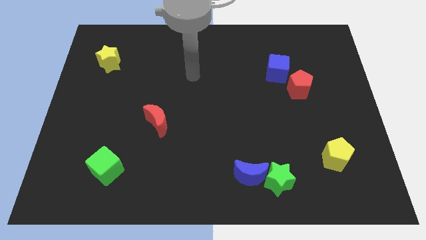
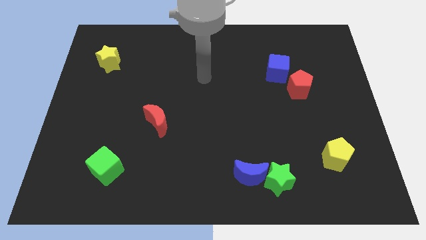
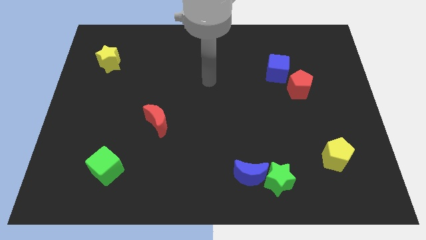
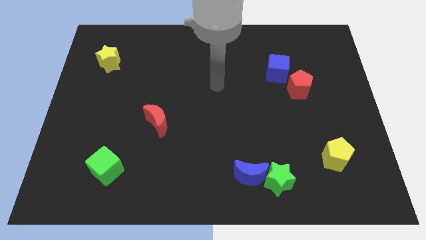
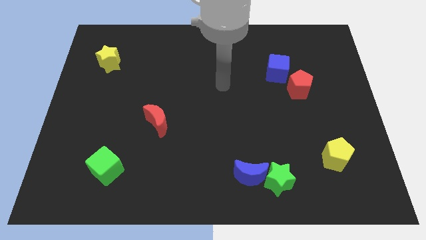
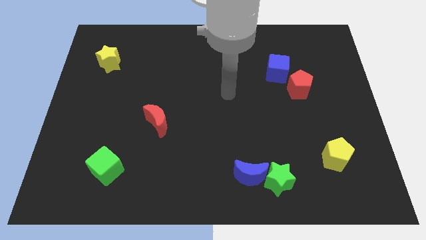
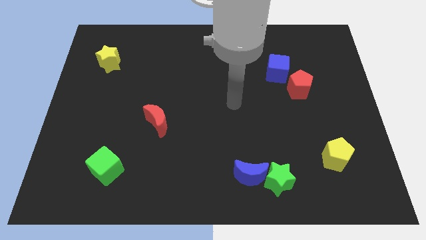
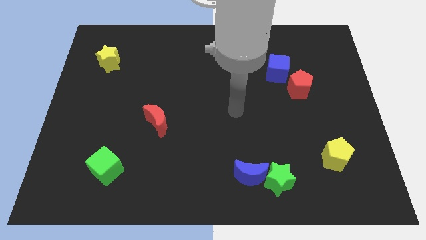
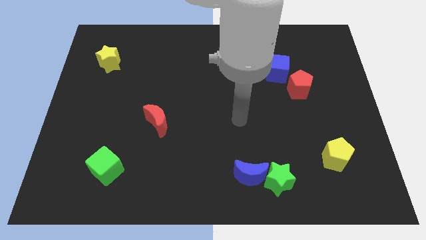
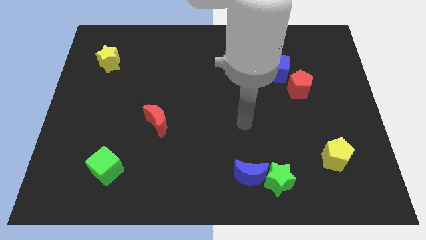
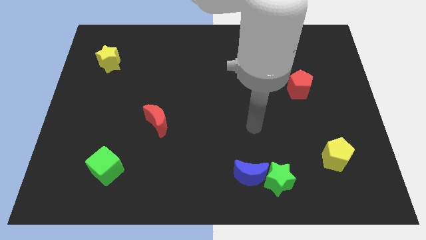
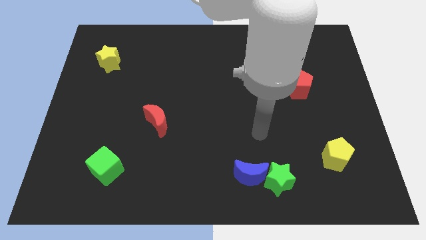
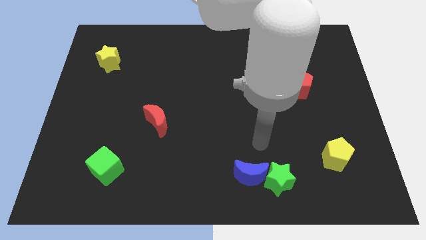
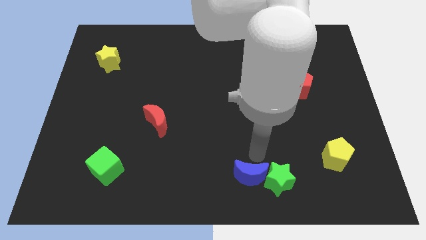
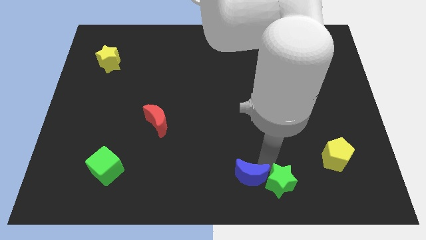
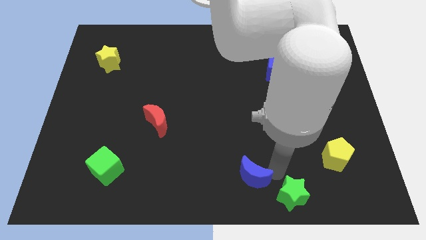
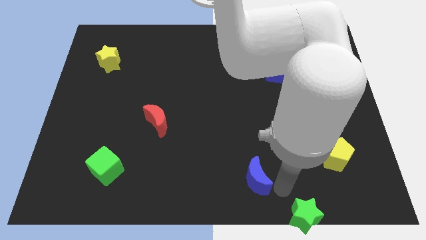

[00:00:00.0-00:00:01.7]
pull the blue moon apart from the green star

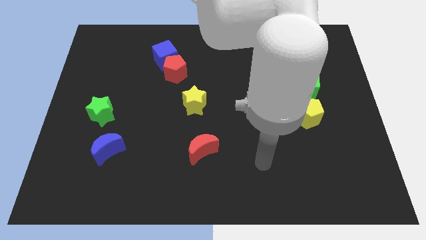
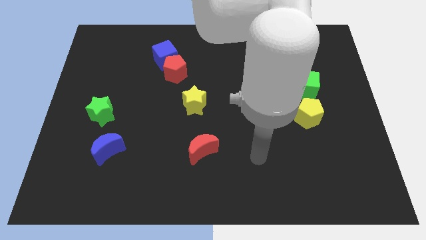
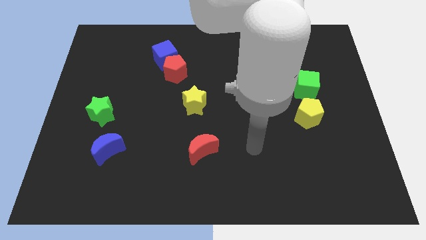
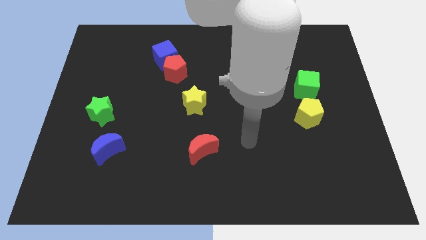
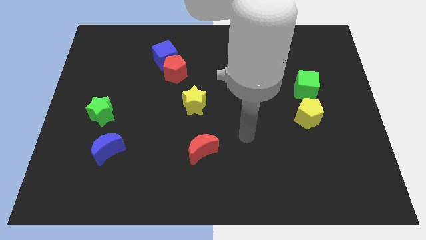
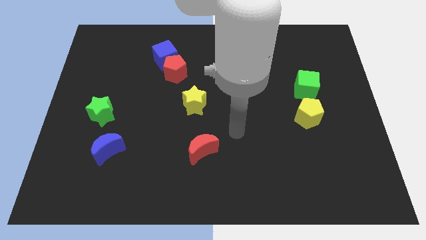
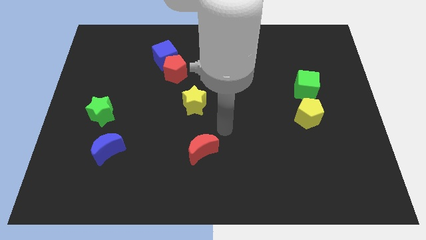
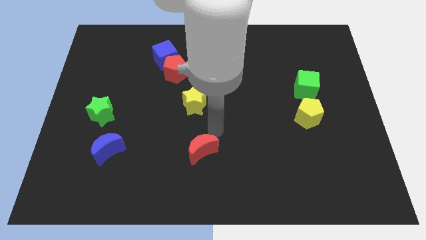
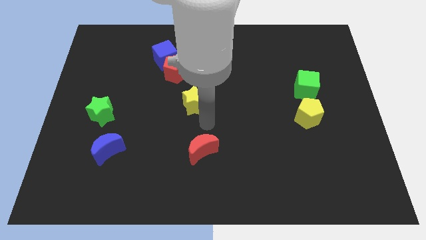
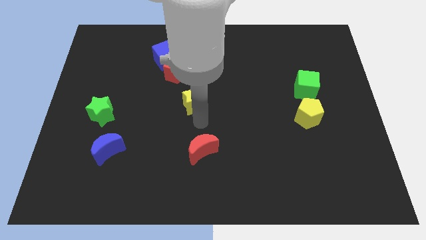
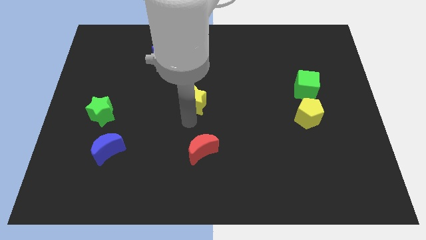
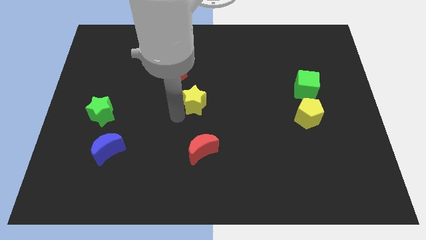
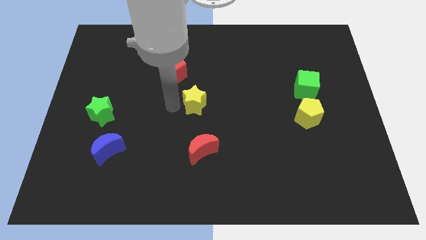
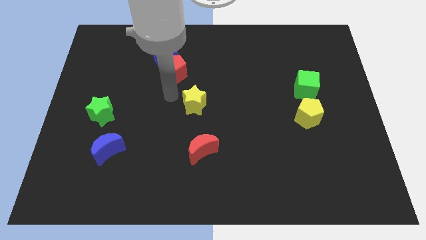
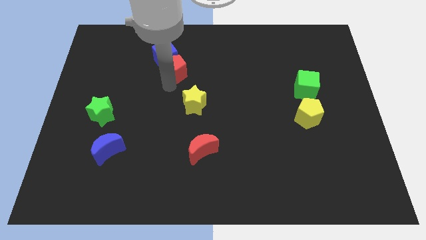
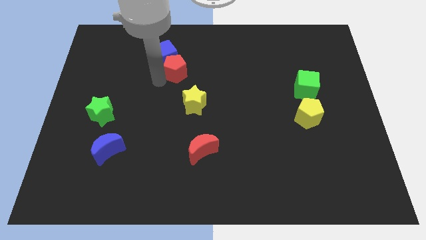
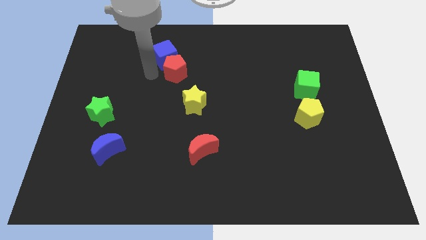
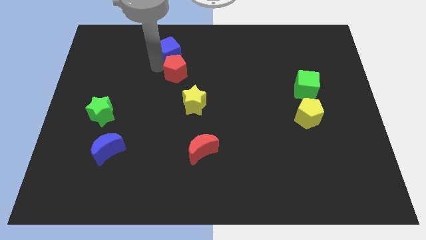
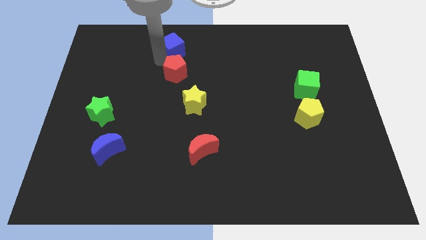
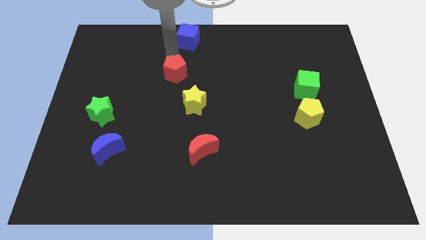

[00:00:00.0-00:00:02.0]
separate the red pentagon from the blue cube

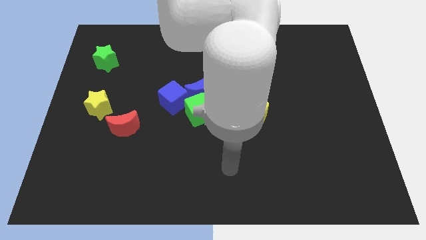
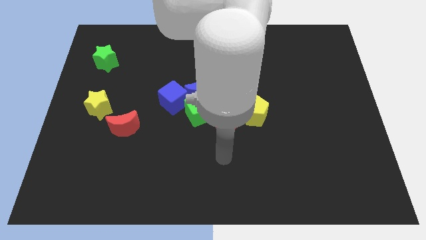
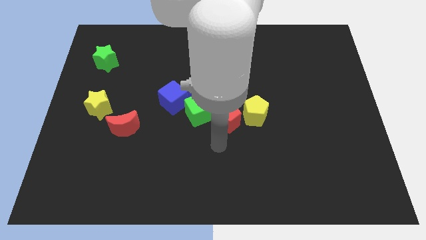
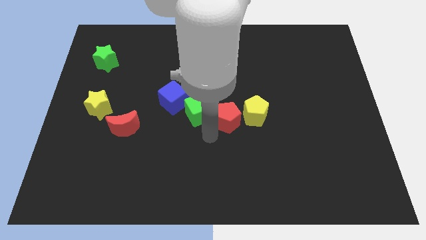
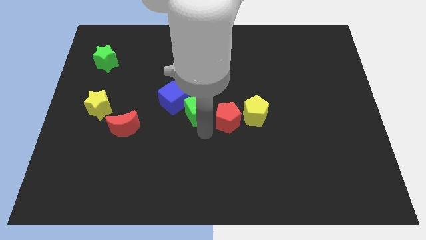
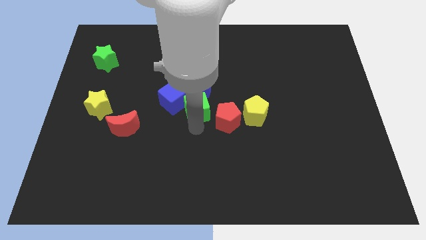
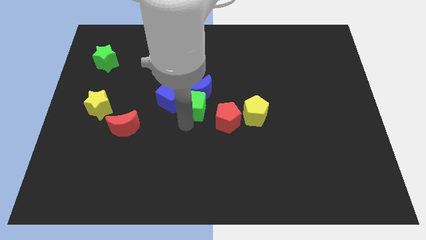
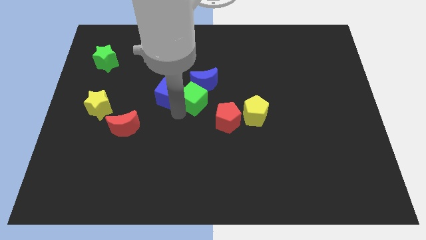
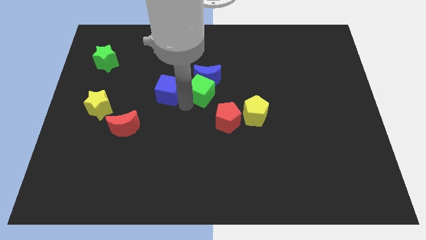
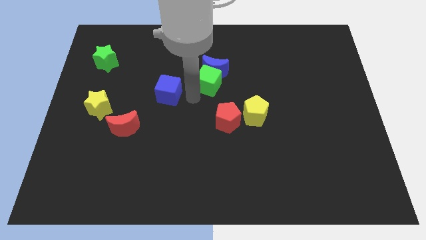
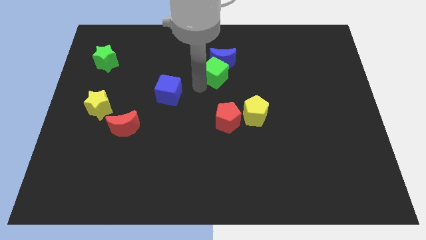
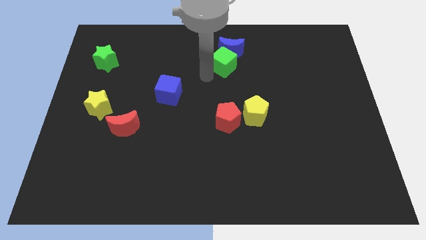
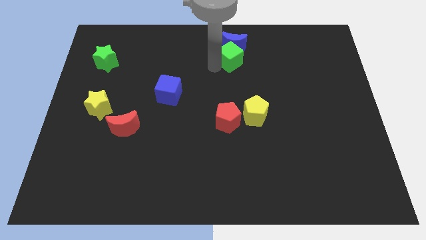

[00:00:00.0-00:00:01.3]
move the green cube away from the blue moon, red pentagon, and blue cube

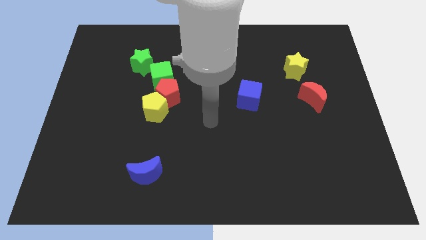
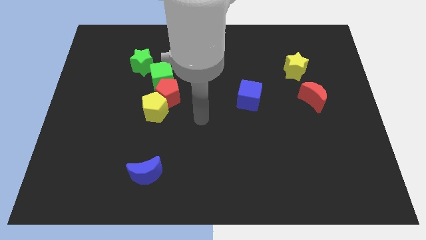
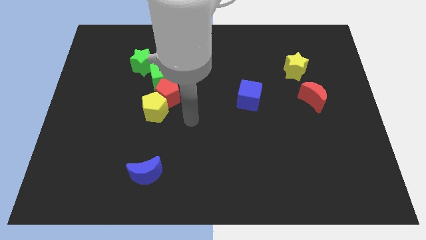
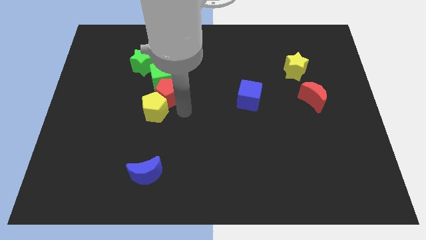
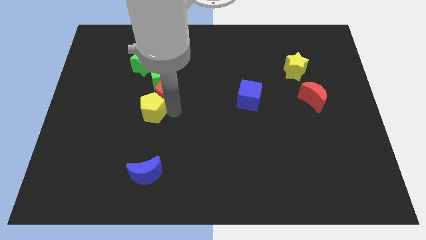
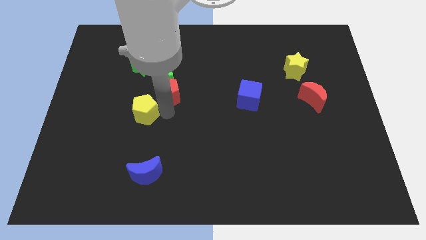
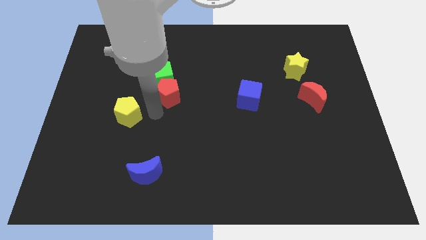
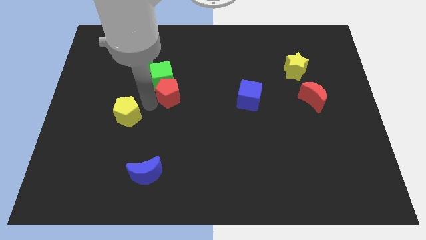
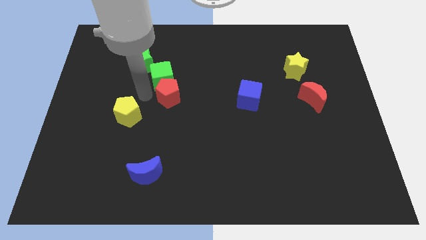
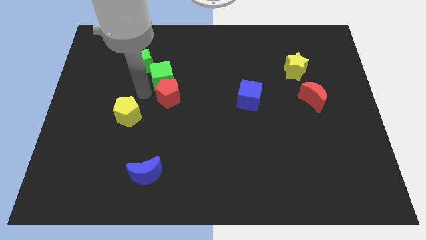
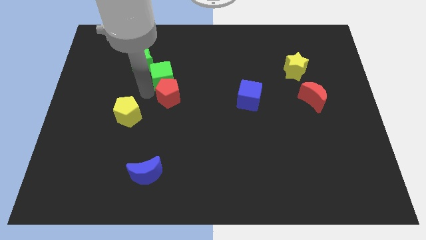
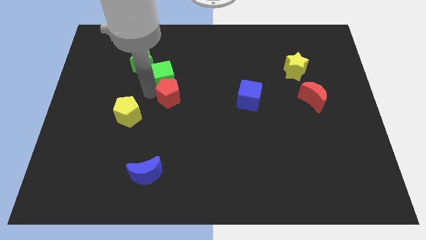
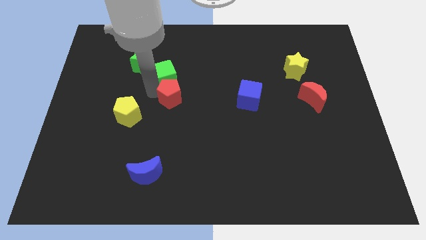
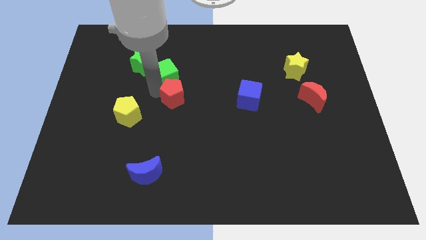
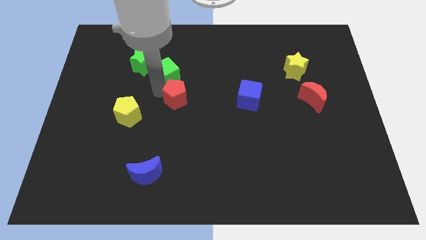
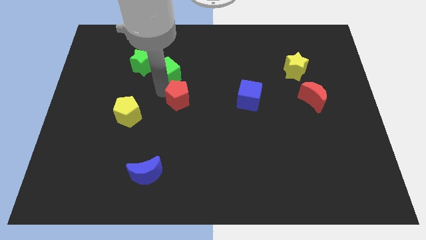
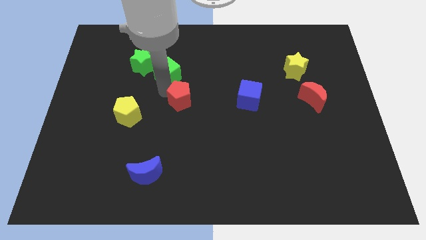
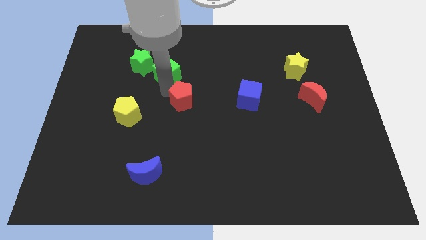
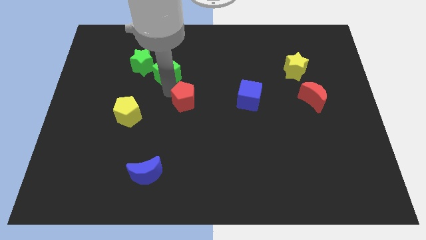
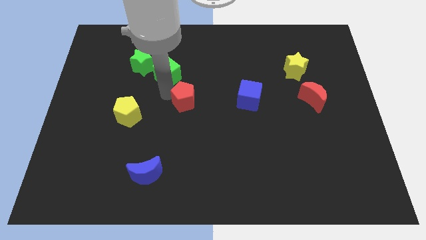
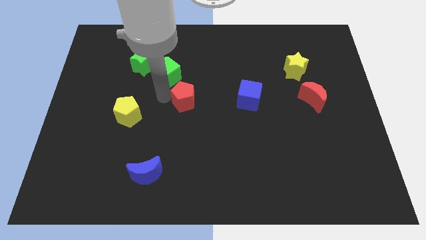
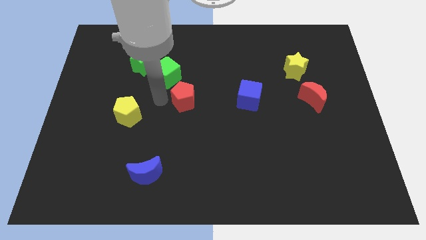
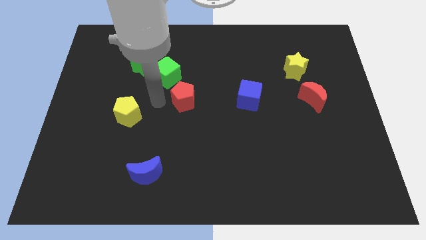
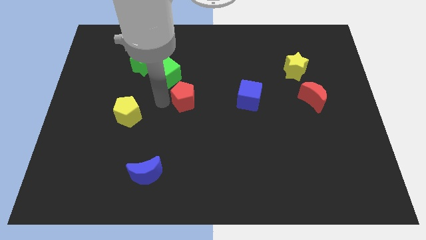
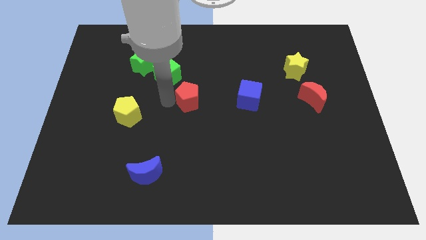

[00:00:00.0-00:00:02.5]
move the red pentagon away from the yellow pentagon and green cube

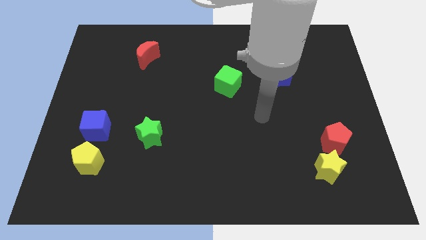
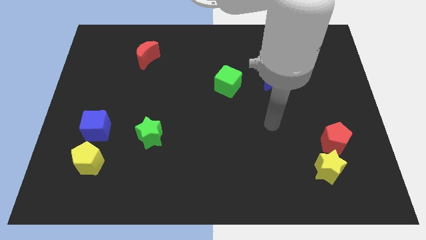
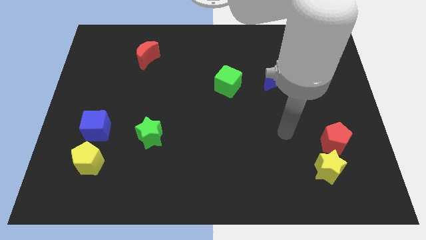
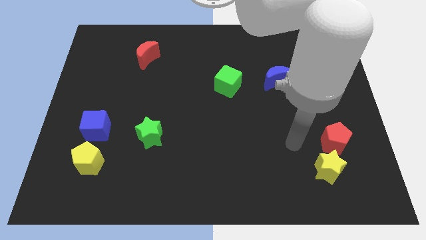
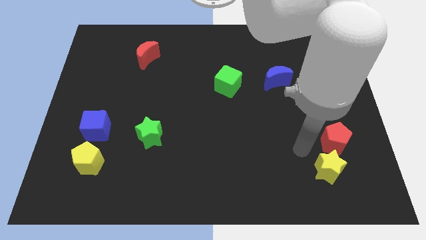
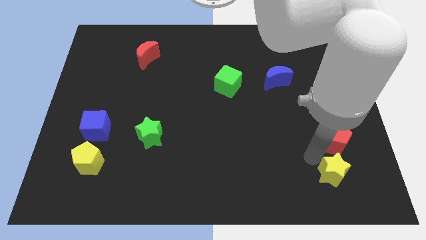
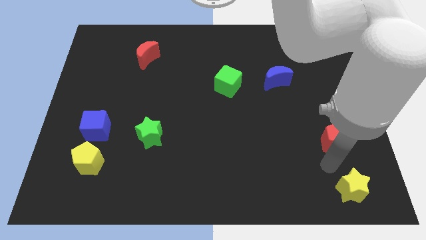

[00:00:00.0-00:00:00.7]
pull the red pentagon apart from the yellow star

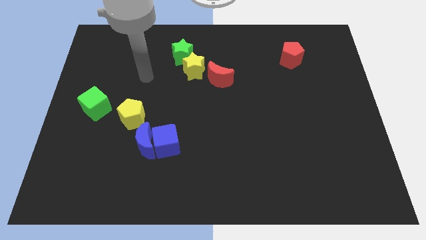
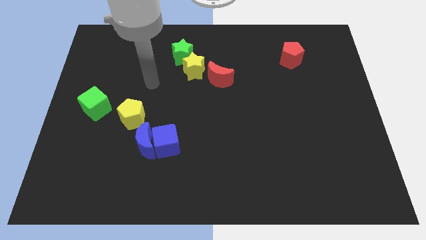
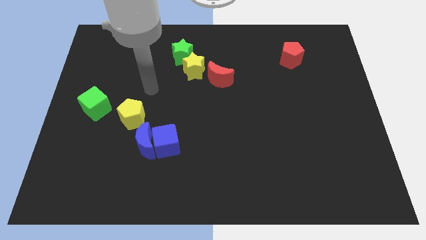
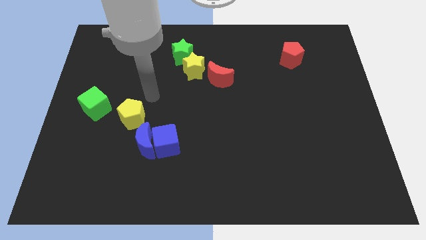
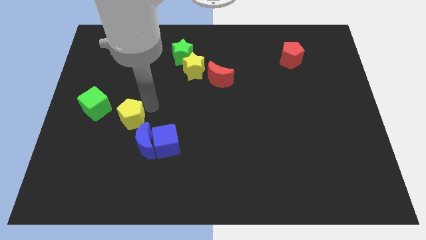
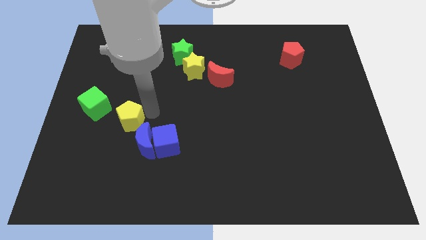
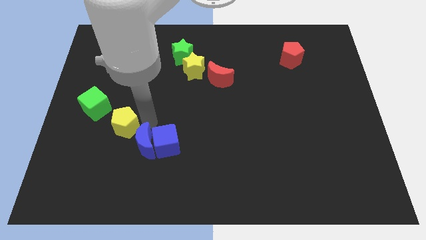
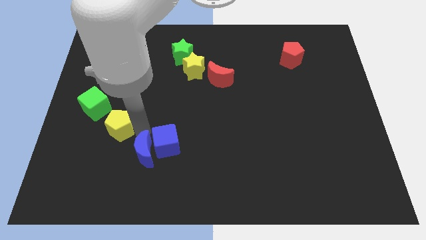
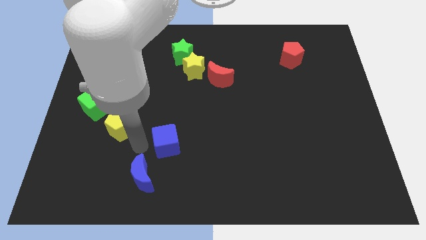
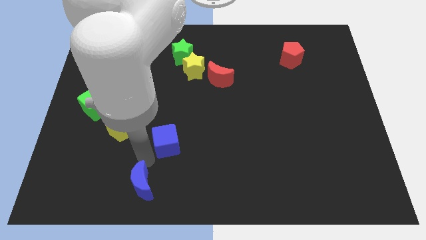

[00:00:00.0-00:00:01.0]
separate the blue cube from the blue moon
